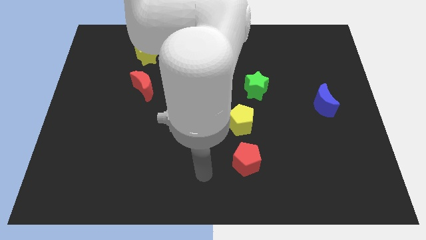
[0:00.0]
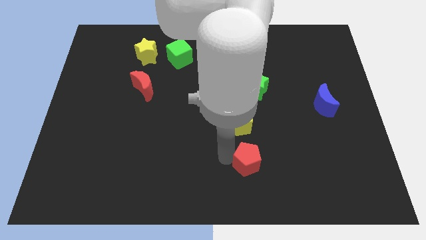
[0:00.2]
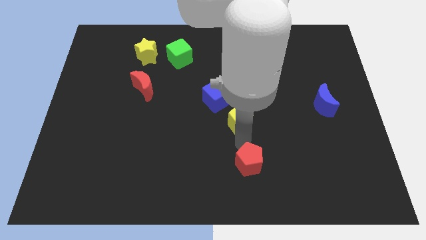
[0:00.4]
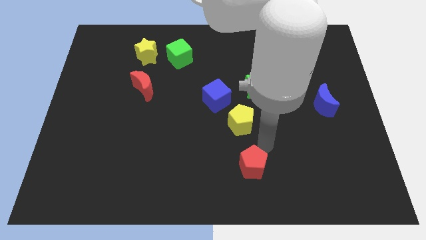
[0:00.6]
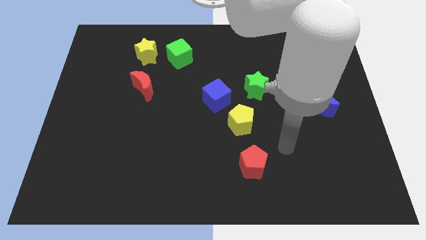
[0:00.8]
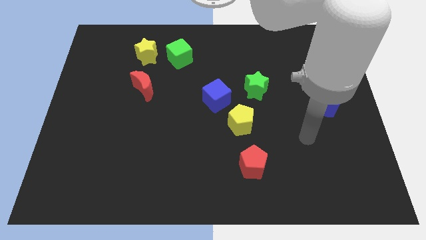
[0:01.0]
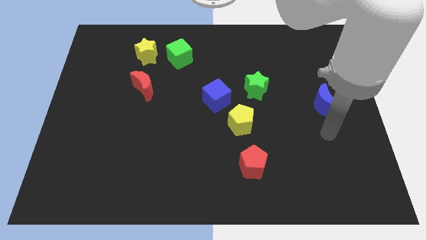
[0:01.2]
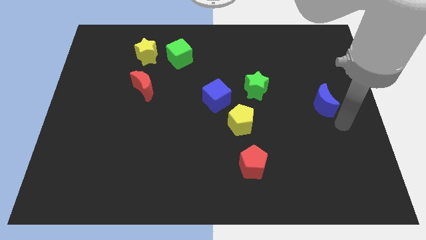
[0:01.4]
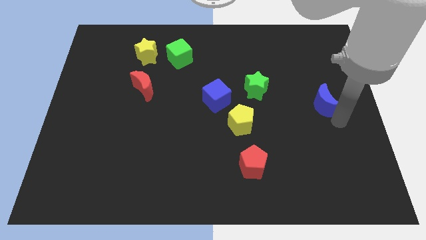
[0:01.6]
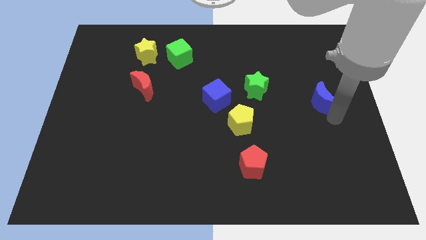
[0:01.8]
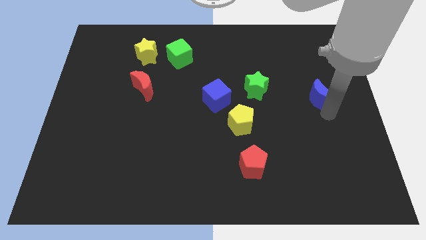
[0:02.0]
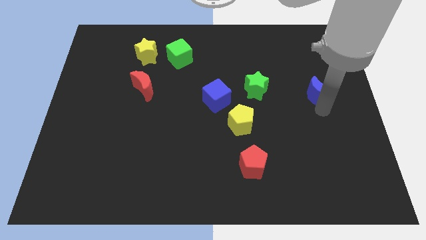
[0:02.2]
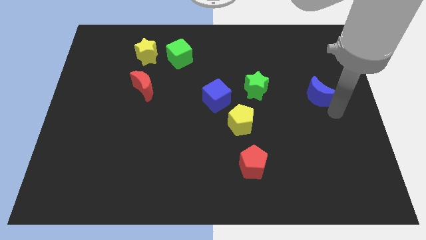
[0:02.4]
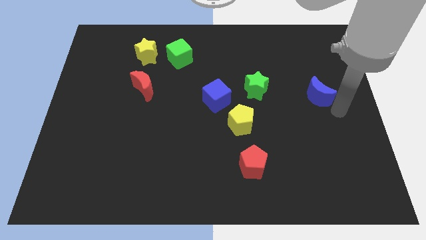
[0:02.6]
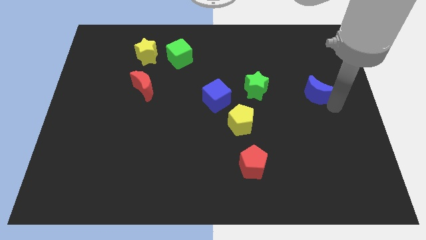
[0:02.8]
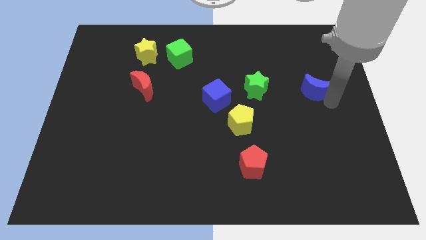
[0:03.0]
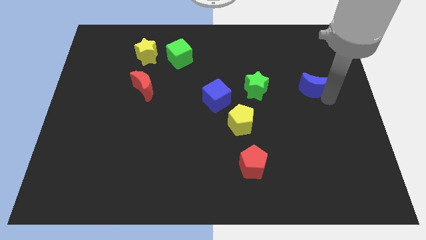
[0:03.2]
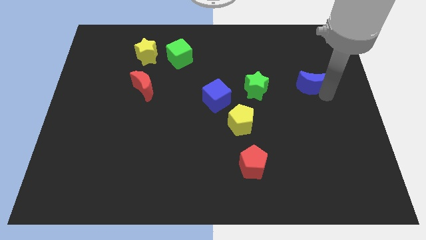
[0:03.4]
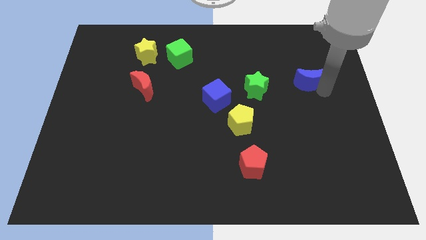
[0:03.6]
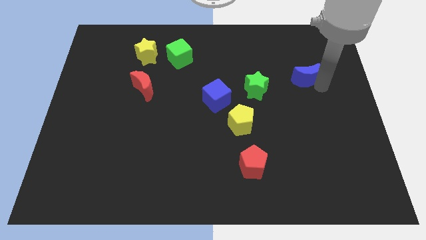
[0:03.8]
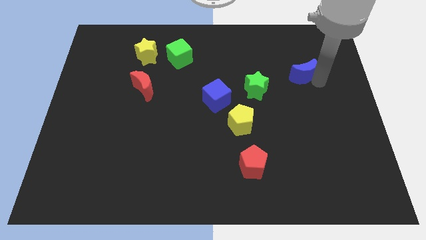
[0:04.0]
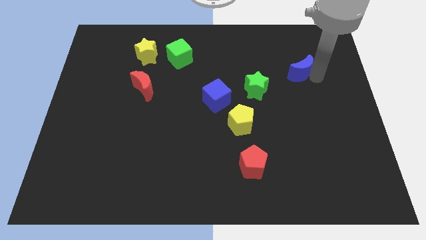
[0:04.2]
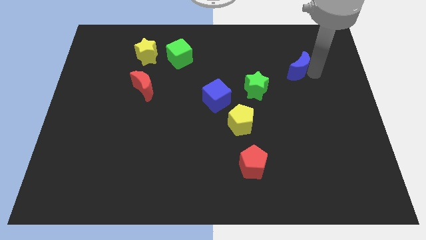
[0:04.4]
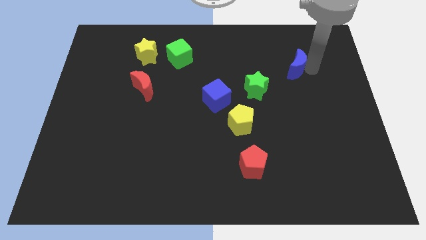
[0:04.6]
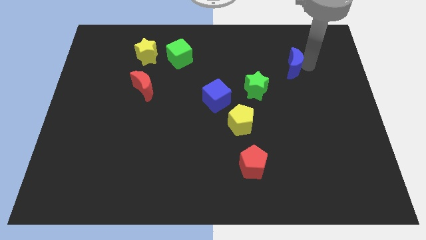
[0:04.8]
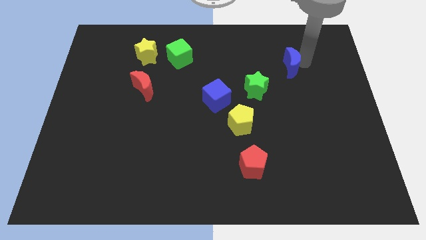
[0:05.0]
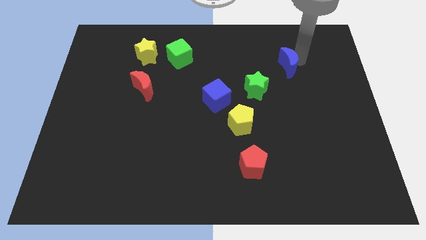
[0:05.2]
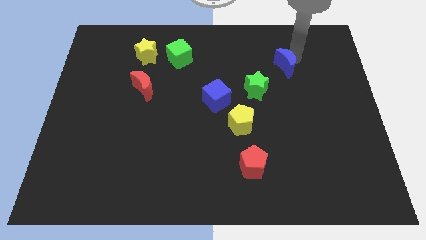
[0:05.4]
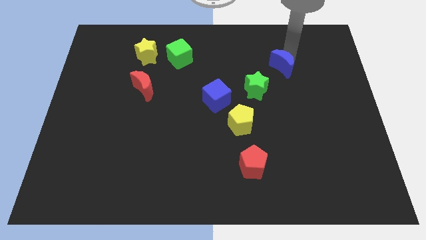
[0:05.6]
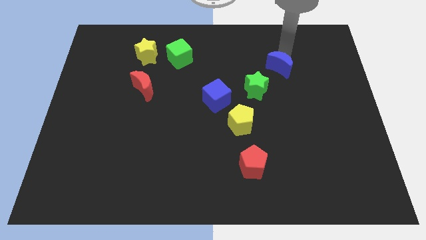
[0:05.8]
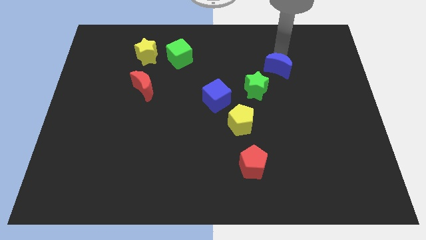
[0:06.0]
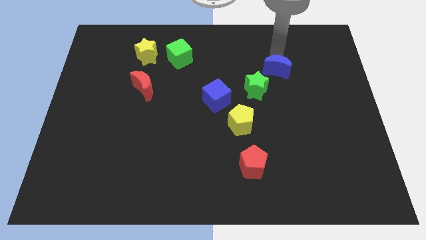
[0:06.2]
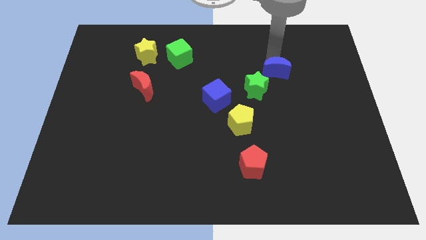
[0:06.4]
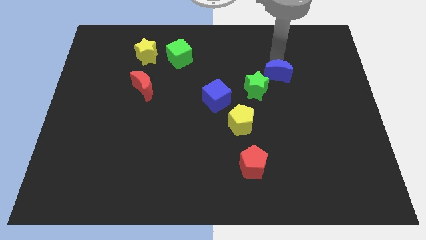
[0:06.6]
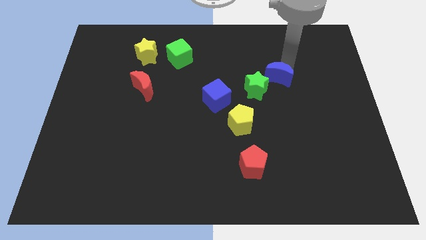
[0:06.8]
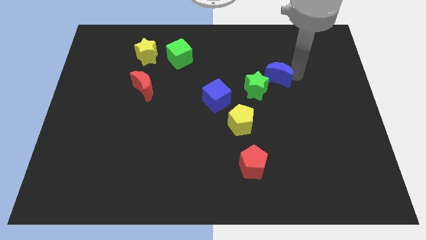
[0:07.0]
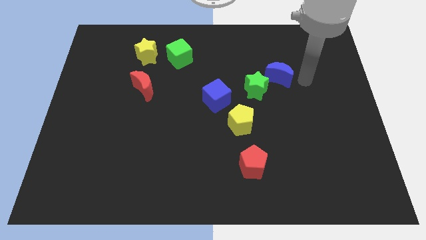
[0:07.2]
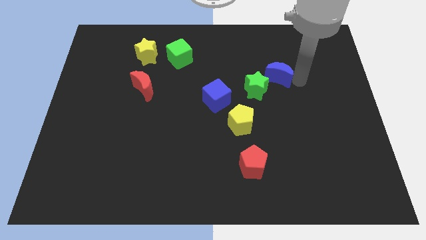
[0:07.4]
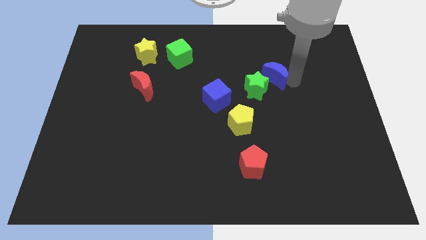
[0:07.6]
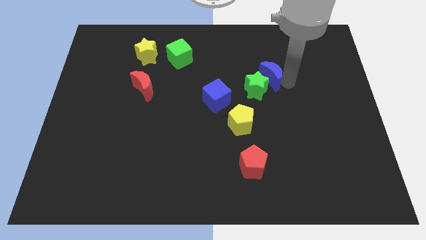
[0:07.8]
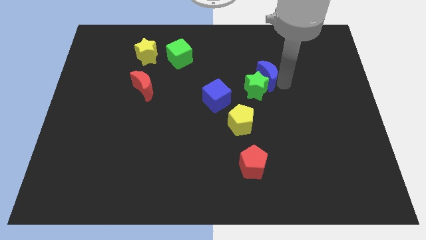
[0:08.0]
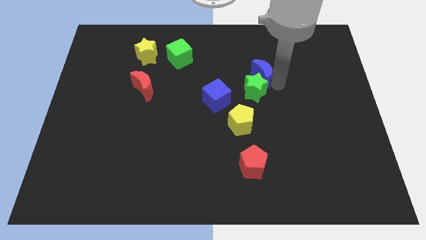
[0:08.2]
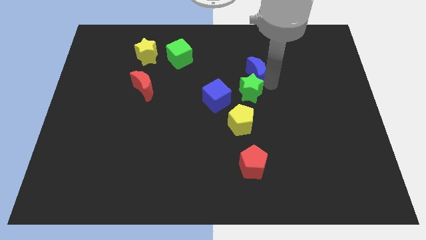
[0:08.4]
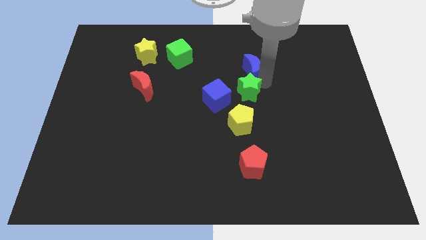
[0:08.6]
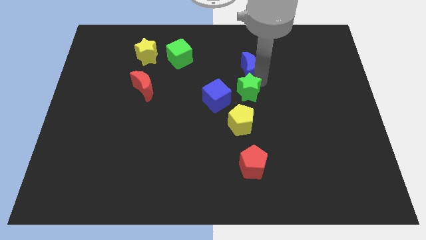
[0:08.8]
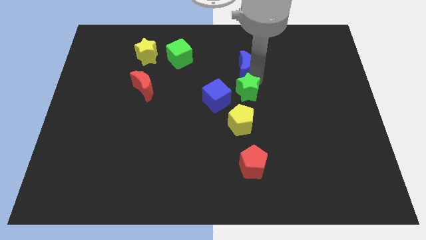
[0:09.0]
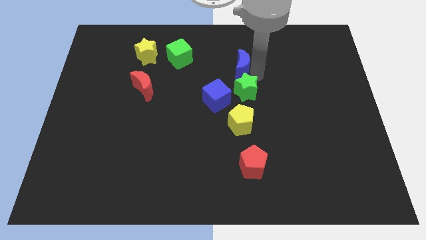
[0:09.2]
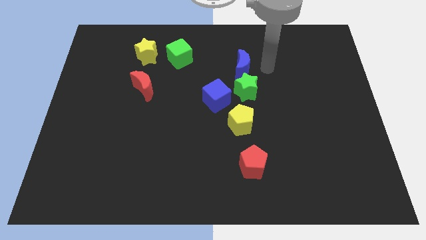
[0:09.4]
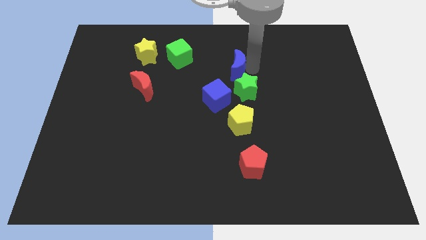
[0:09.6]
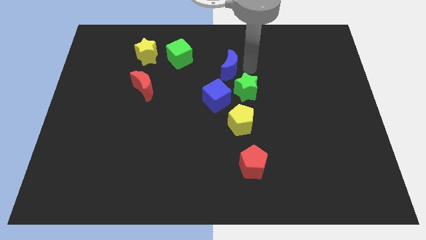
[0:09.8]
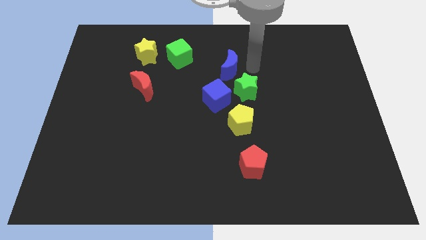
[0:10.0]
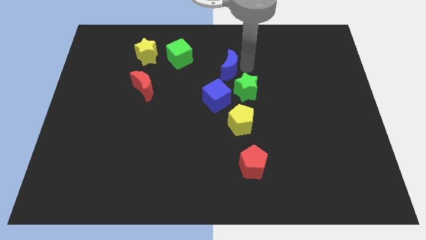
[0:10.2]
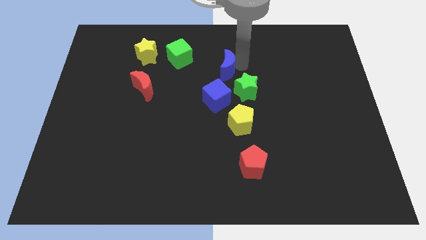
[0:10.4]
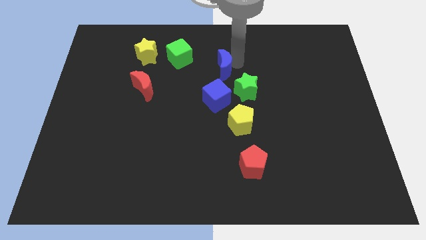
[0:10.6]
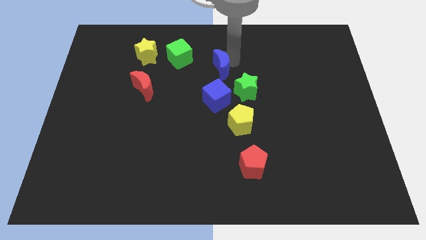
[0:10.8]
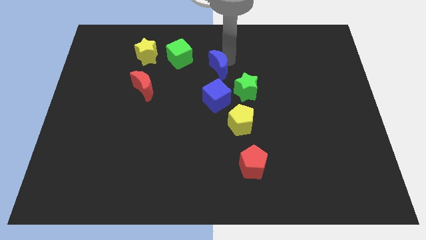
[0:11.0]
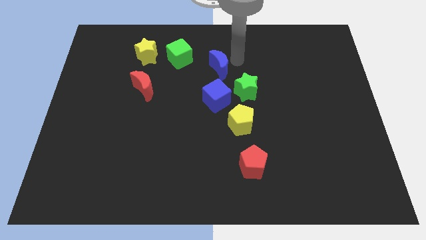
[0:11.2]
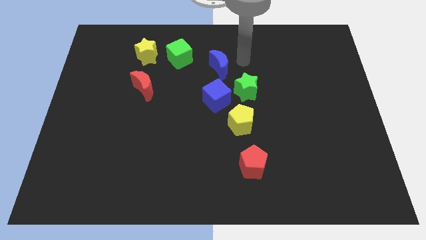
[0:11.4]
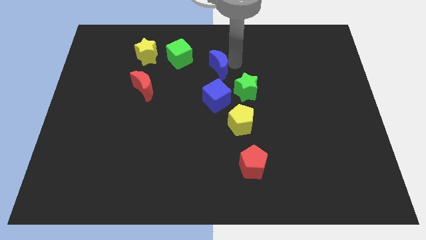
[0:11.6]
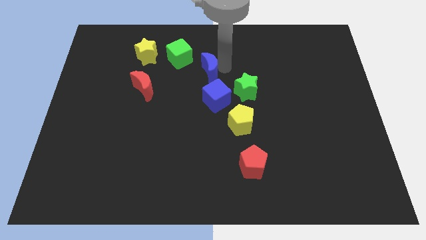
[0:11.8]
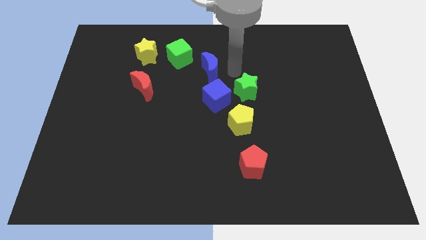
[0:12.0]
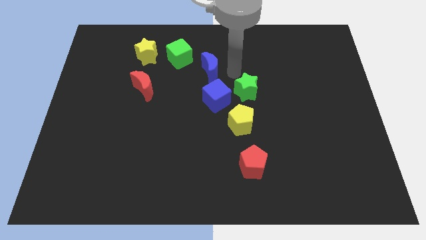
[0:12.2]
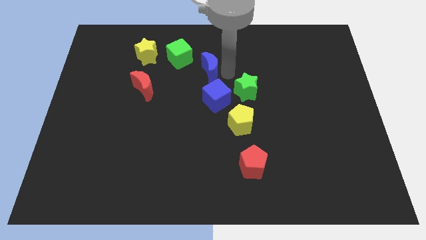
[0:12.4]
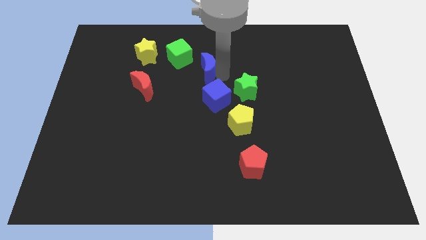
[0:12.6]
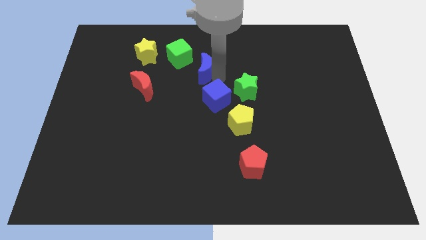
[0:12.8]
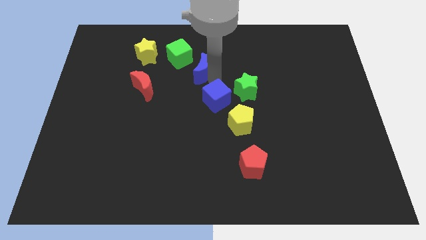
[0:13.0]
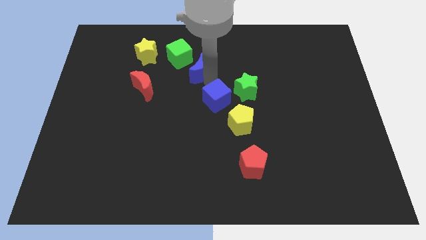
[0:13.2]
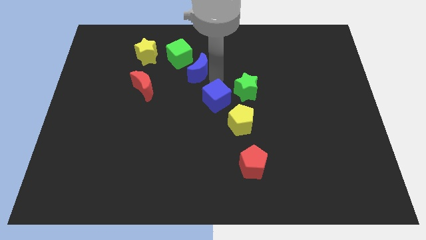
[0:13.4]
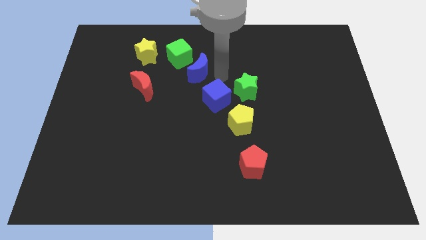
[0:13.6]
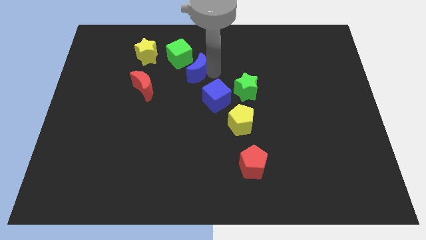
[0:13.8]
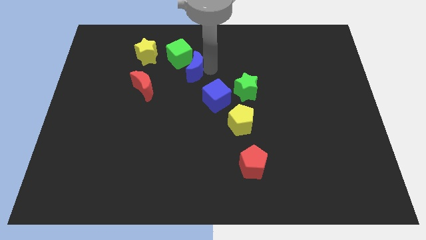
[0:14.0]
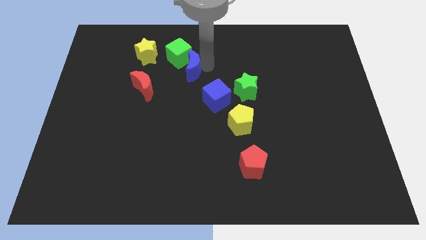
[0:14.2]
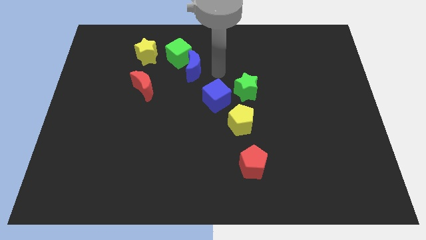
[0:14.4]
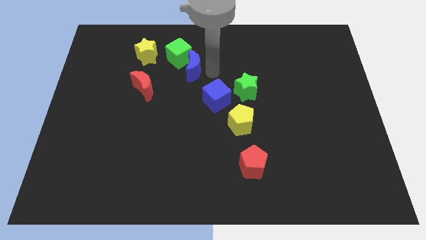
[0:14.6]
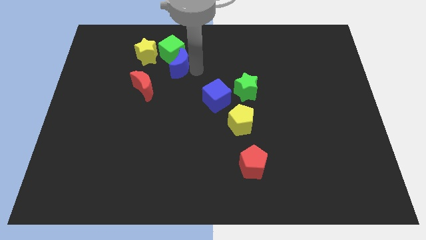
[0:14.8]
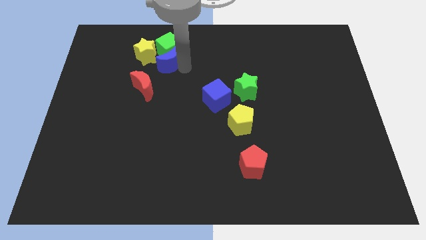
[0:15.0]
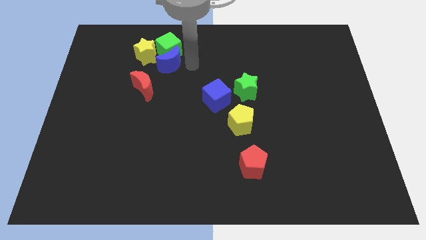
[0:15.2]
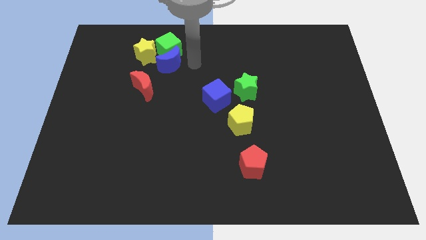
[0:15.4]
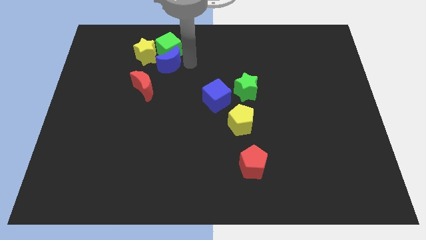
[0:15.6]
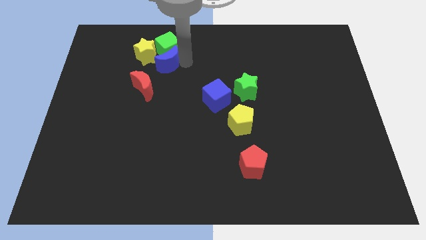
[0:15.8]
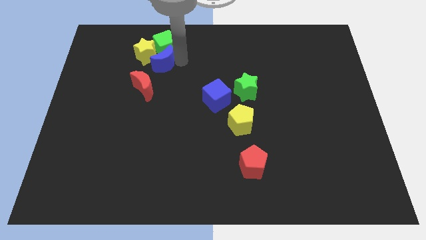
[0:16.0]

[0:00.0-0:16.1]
push the blue moon next to the yellow star

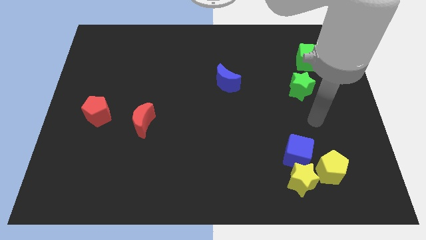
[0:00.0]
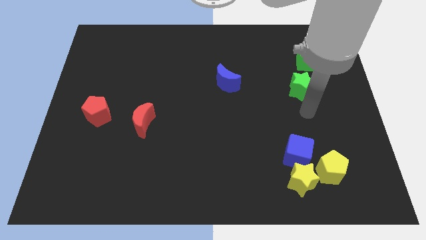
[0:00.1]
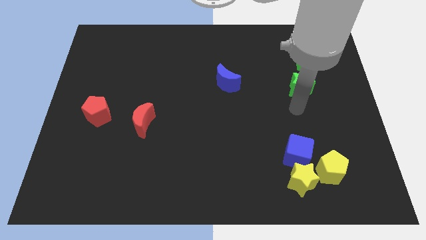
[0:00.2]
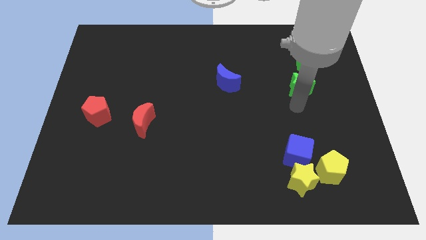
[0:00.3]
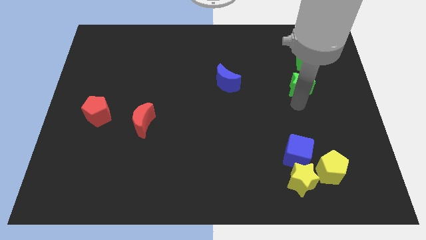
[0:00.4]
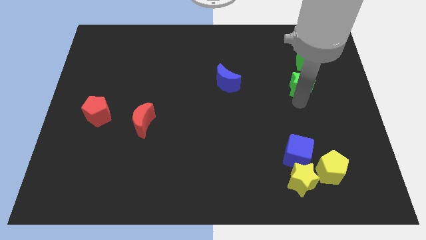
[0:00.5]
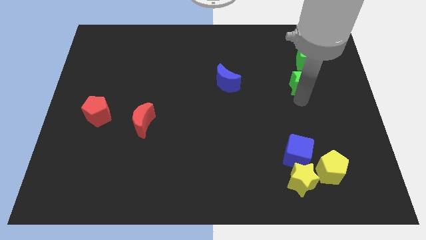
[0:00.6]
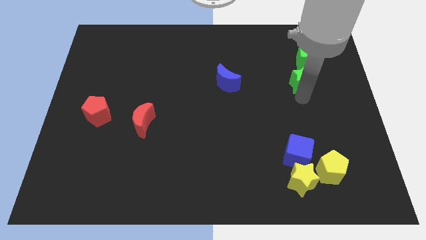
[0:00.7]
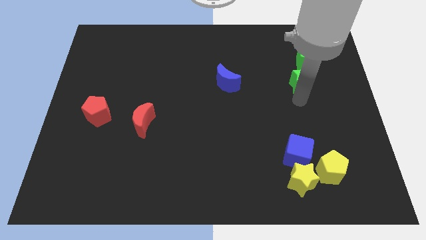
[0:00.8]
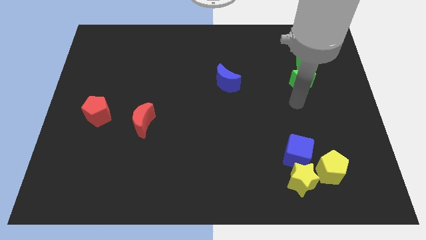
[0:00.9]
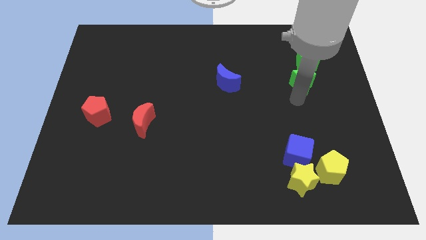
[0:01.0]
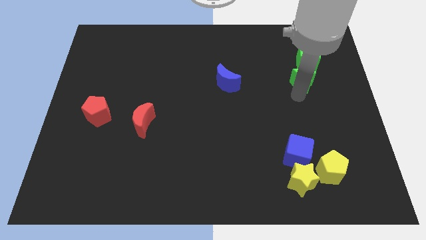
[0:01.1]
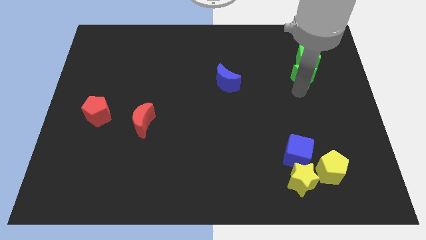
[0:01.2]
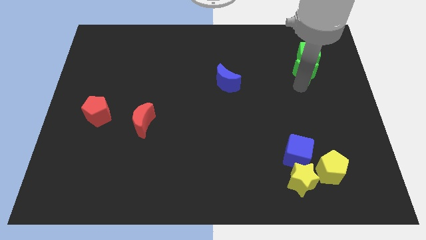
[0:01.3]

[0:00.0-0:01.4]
put the green star next to the green cube
